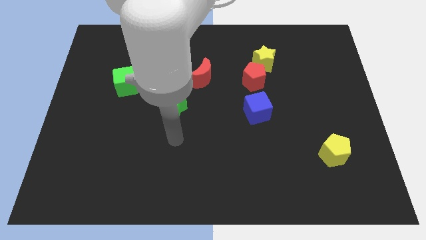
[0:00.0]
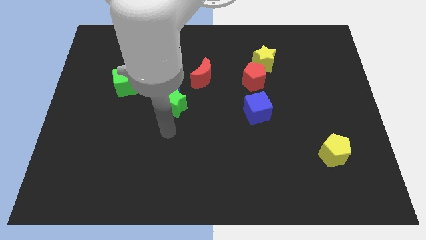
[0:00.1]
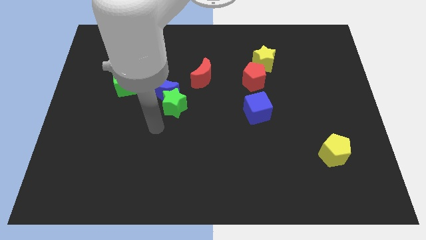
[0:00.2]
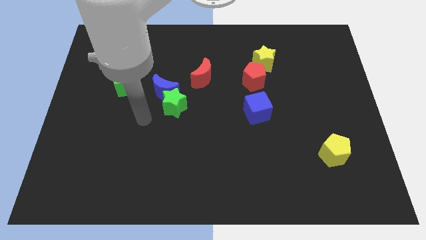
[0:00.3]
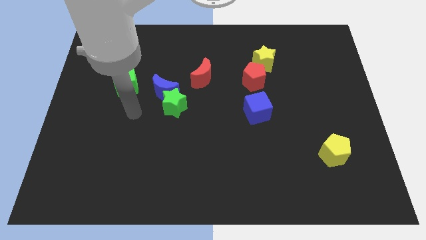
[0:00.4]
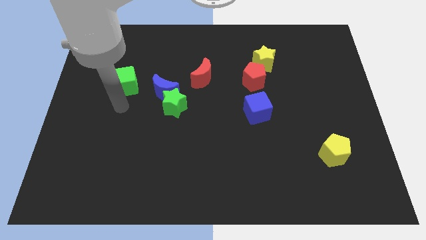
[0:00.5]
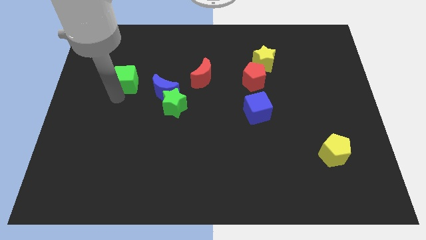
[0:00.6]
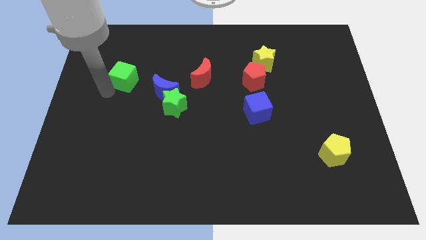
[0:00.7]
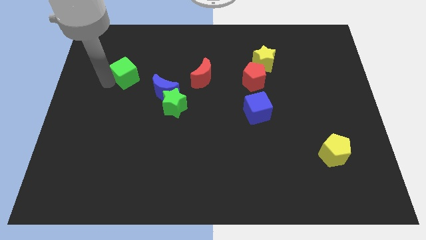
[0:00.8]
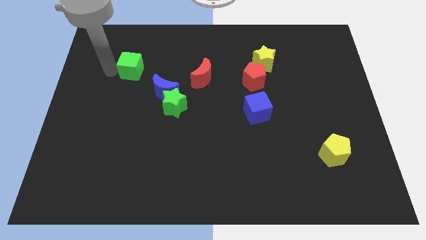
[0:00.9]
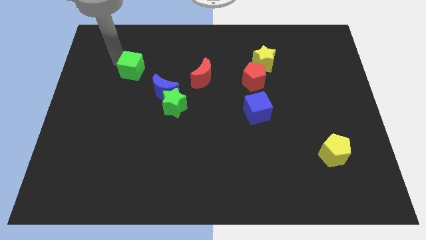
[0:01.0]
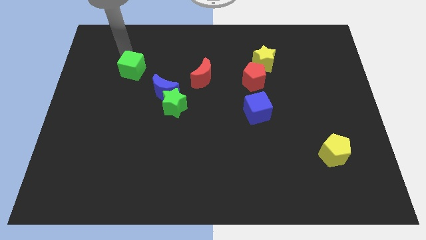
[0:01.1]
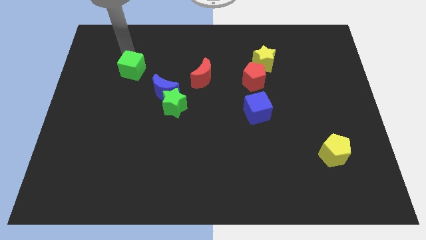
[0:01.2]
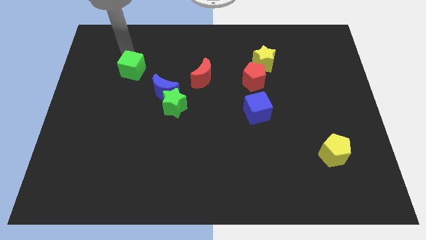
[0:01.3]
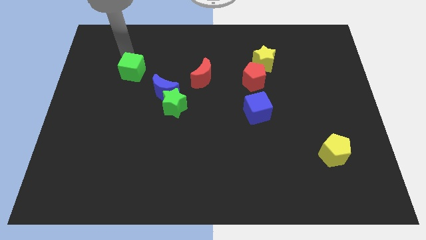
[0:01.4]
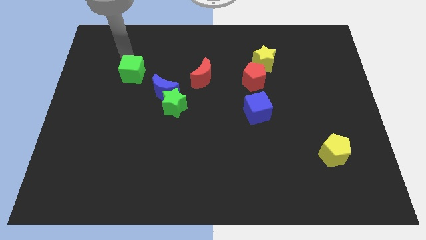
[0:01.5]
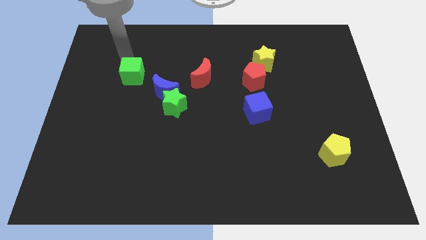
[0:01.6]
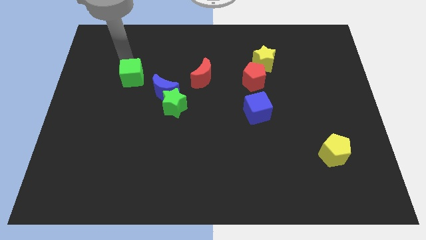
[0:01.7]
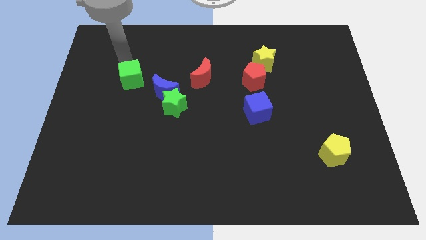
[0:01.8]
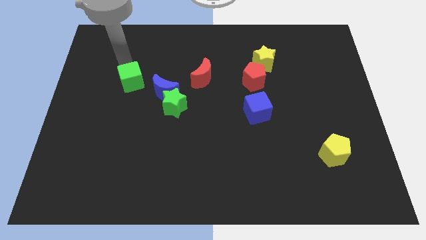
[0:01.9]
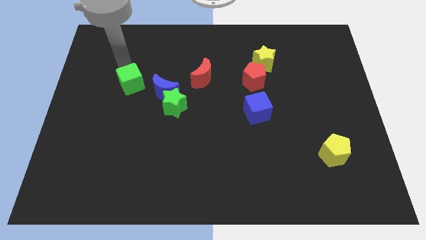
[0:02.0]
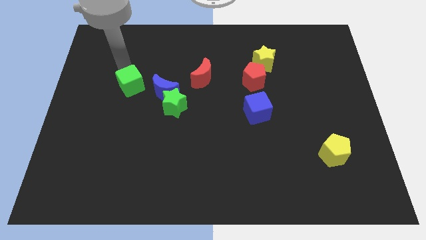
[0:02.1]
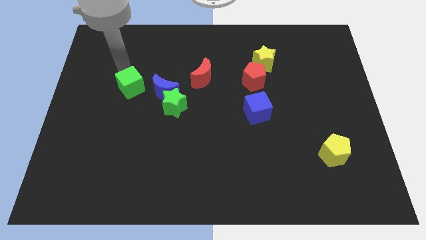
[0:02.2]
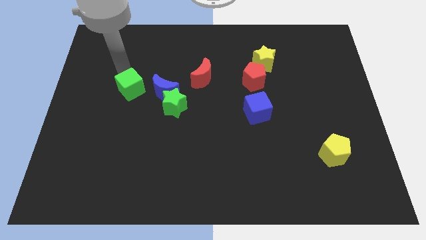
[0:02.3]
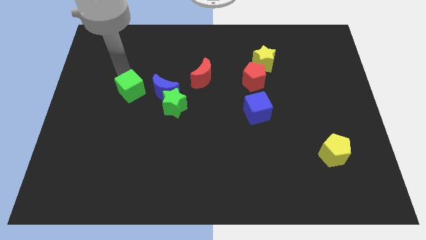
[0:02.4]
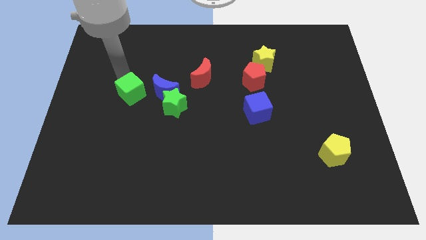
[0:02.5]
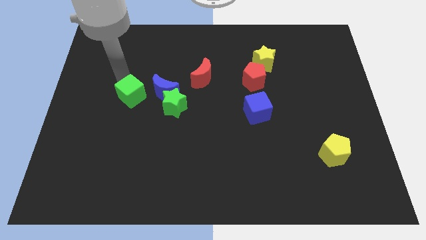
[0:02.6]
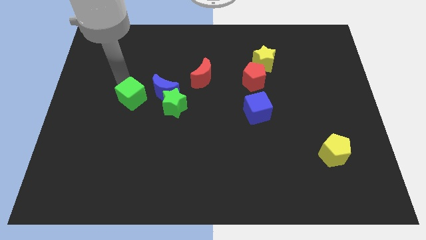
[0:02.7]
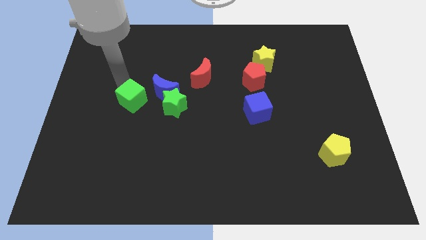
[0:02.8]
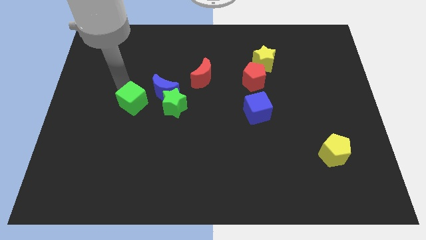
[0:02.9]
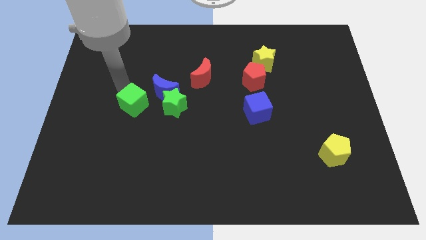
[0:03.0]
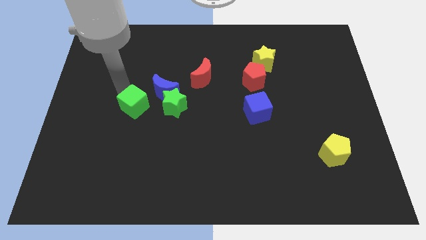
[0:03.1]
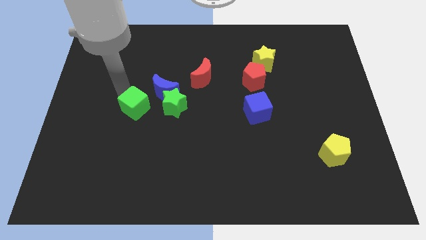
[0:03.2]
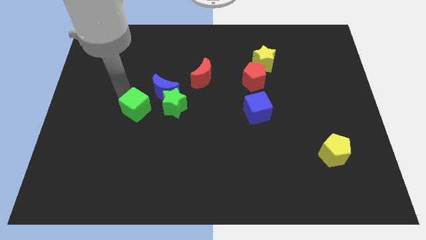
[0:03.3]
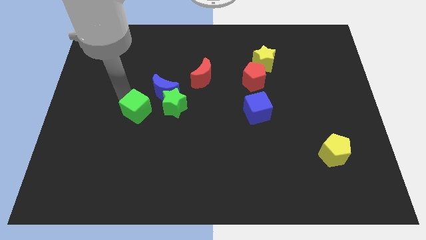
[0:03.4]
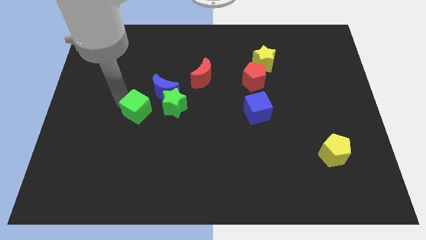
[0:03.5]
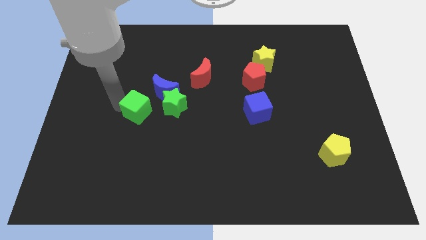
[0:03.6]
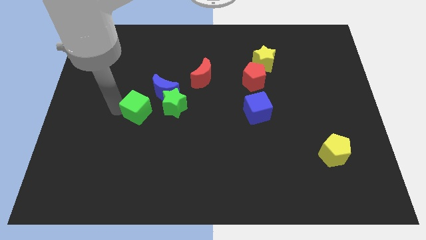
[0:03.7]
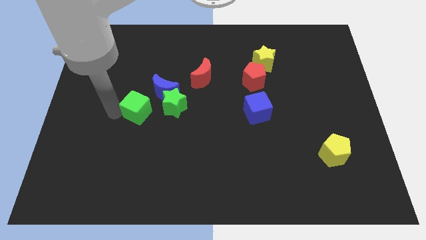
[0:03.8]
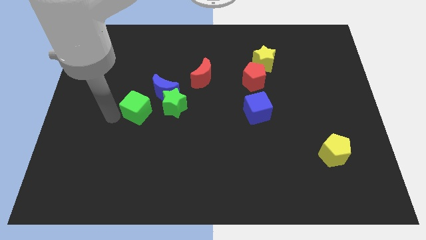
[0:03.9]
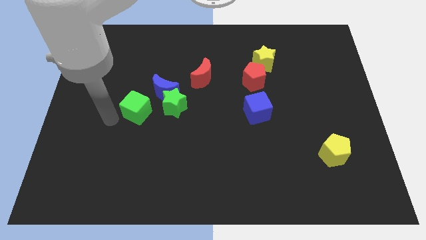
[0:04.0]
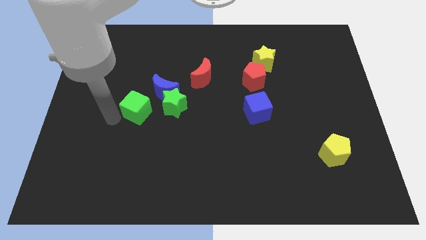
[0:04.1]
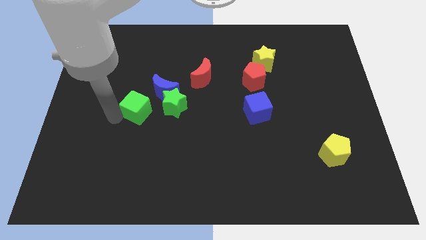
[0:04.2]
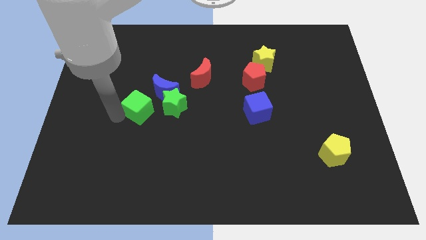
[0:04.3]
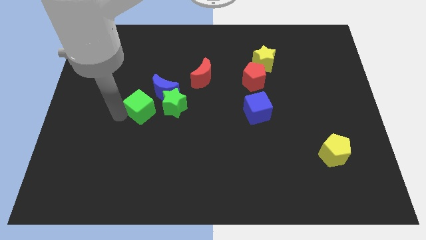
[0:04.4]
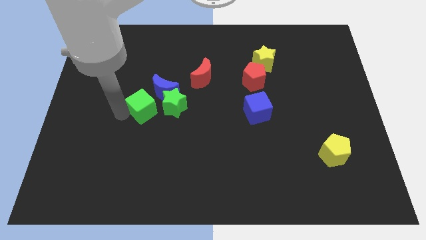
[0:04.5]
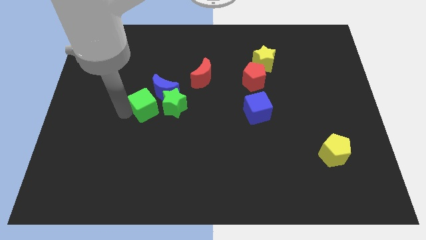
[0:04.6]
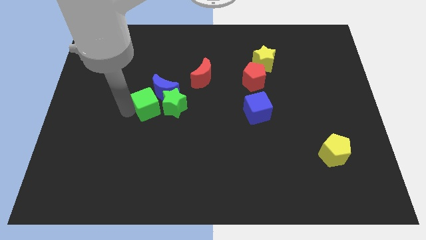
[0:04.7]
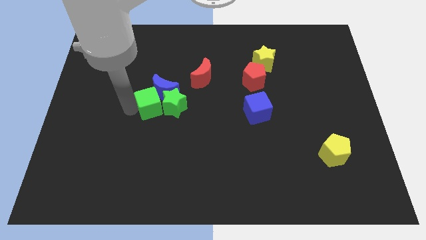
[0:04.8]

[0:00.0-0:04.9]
push the green cube next to the green star

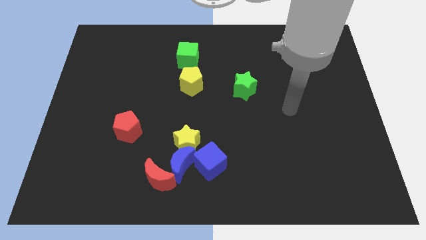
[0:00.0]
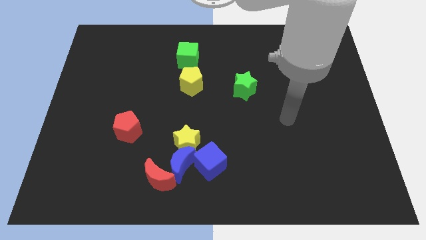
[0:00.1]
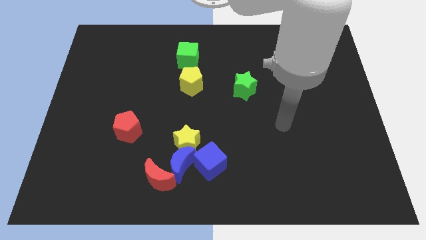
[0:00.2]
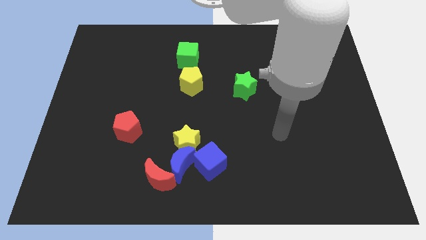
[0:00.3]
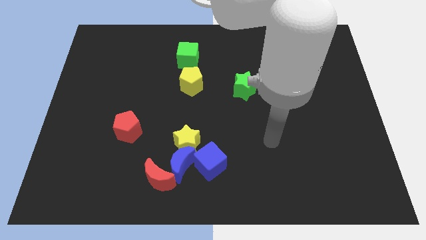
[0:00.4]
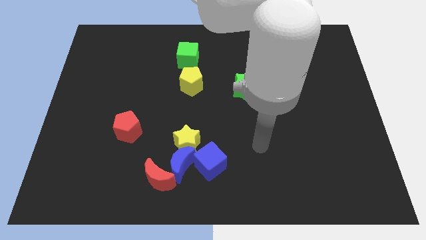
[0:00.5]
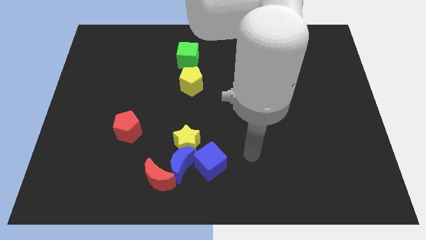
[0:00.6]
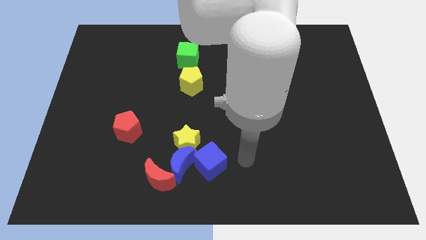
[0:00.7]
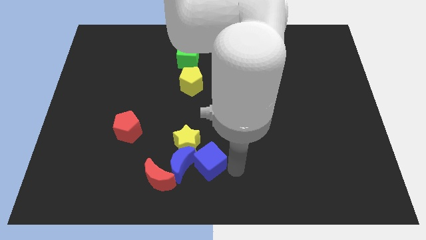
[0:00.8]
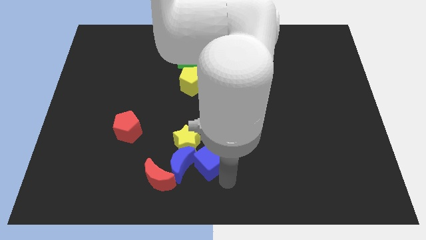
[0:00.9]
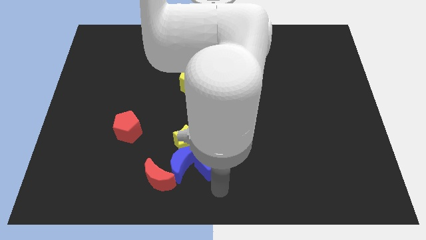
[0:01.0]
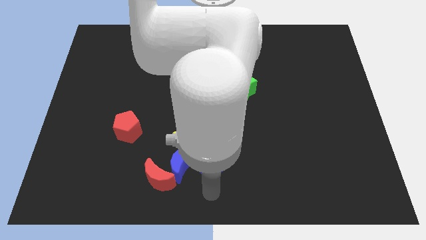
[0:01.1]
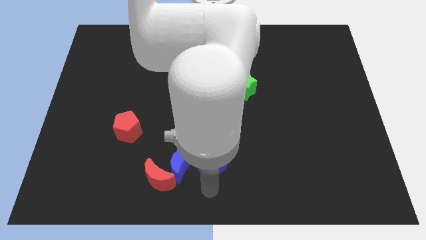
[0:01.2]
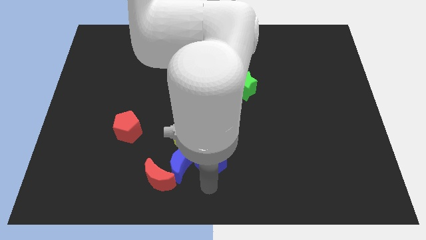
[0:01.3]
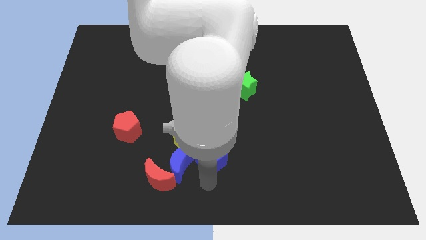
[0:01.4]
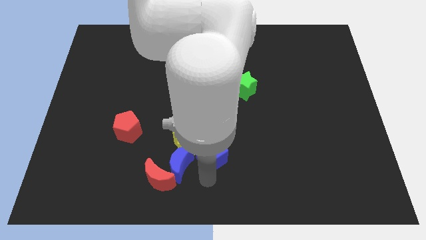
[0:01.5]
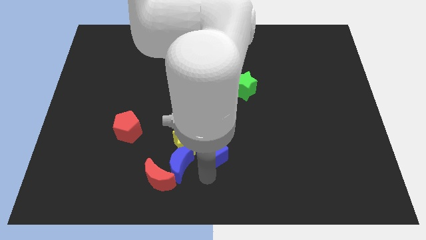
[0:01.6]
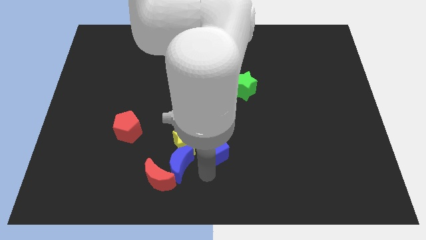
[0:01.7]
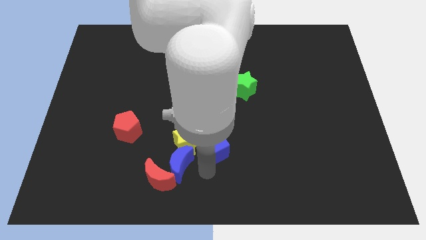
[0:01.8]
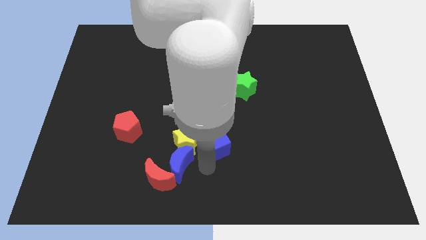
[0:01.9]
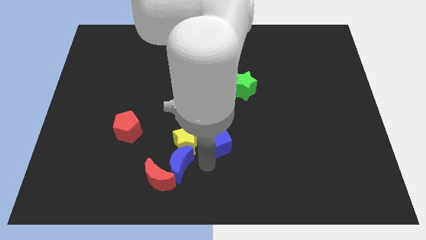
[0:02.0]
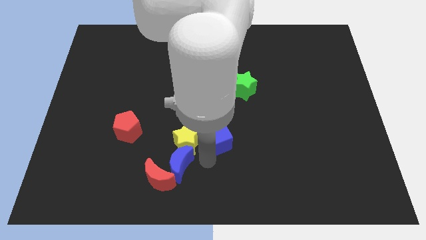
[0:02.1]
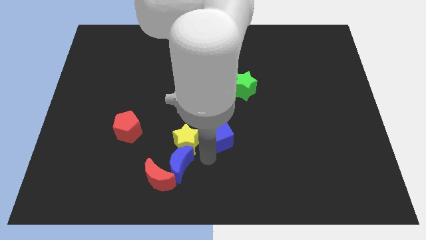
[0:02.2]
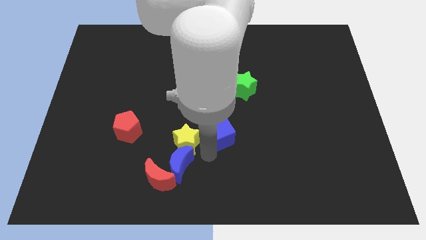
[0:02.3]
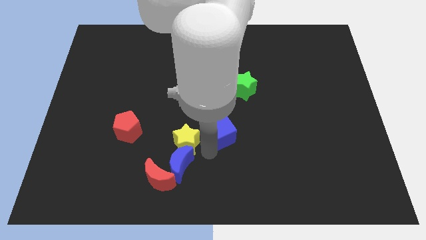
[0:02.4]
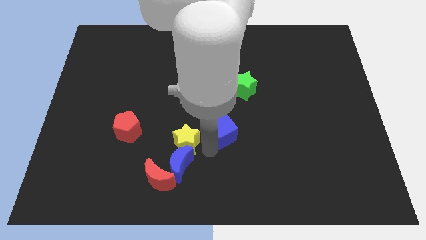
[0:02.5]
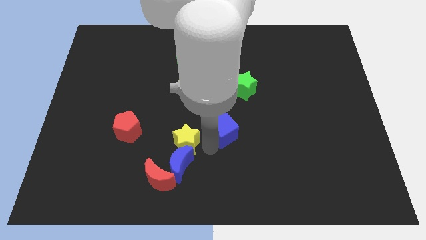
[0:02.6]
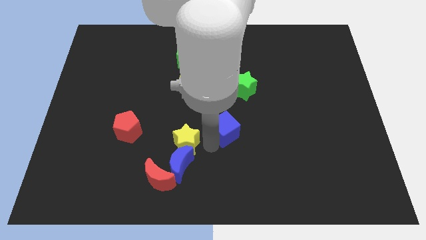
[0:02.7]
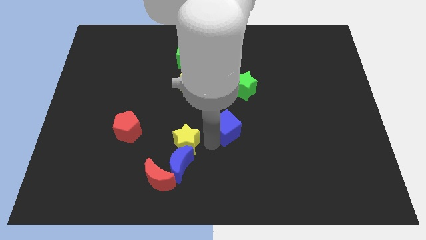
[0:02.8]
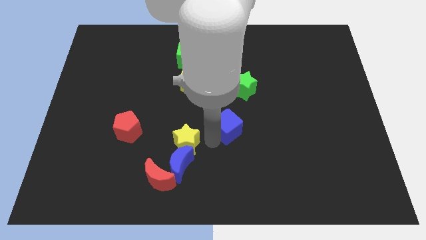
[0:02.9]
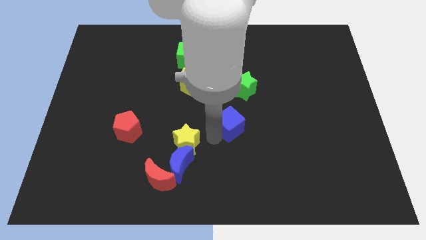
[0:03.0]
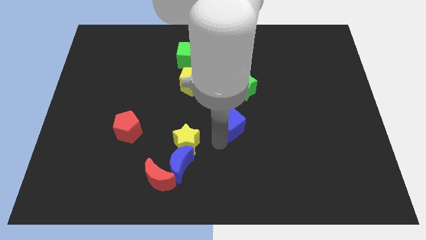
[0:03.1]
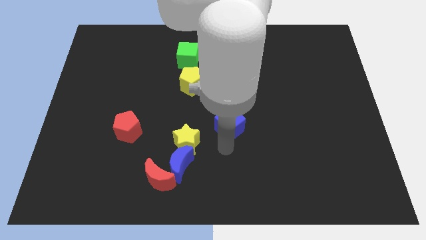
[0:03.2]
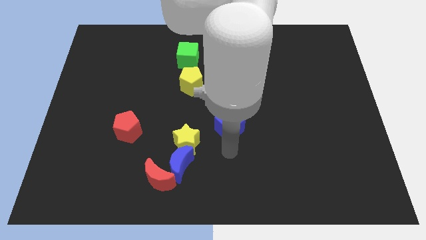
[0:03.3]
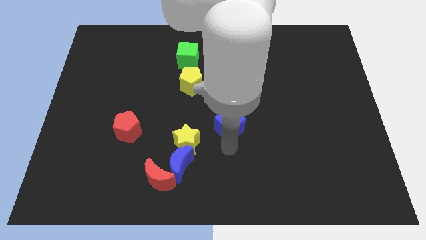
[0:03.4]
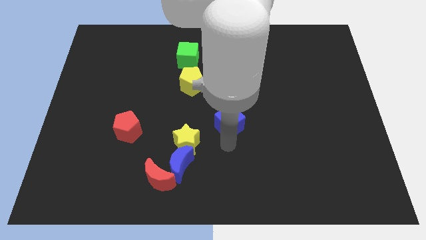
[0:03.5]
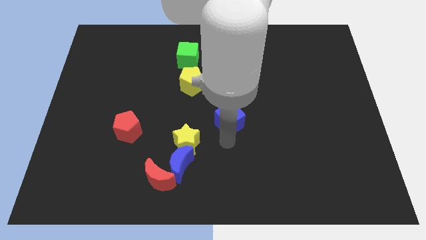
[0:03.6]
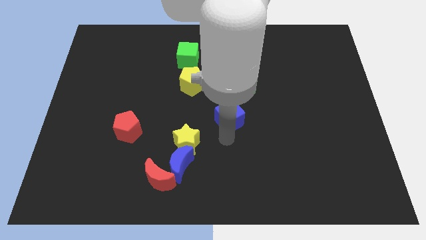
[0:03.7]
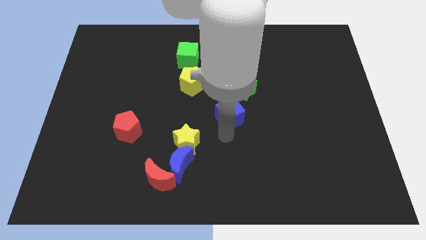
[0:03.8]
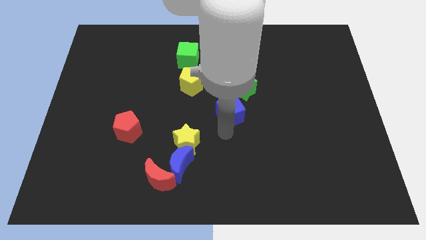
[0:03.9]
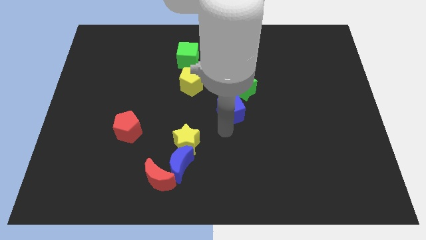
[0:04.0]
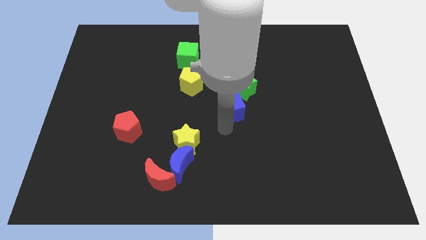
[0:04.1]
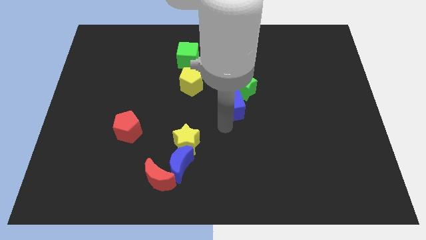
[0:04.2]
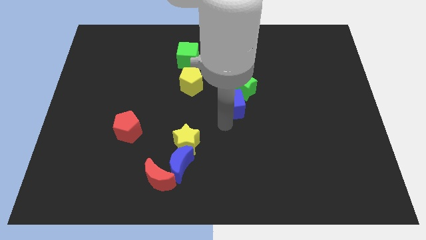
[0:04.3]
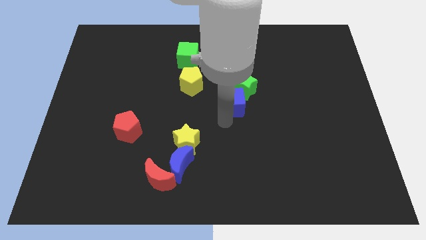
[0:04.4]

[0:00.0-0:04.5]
push the blue cube close to the green star
